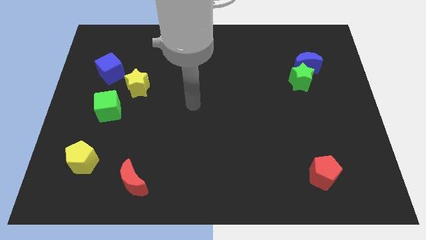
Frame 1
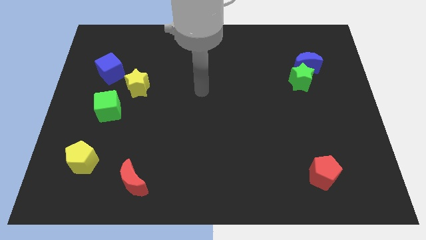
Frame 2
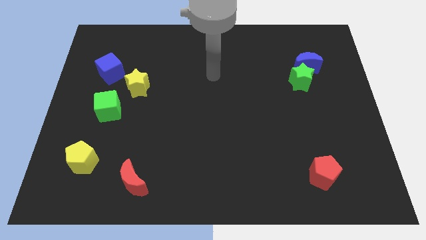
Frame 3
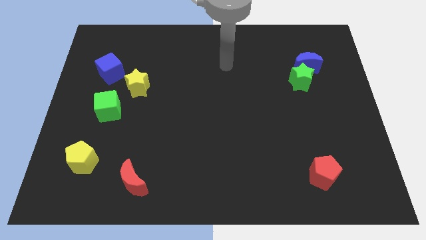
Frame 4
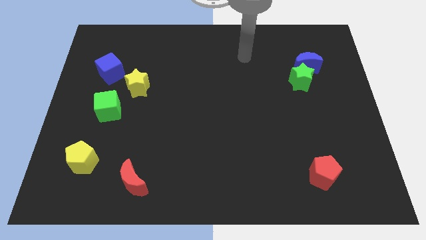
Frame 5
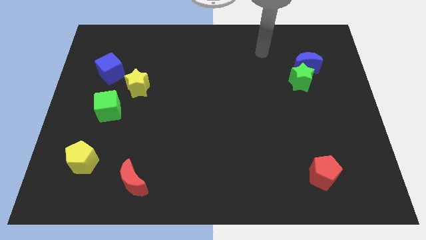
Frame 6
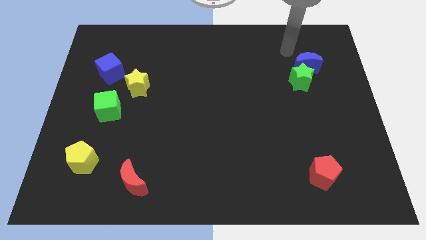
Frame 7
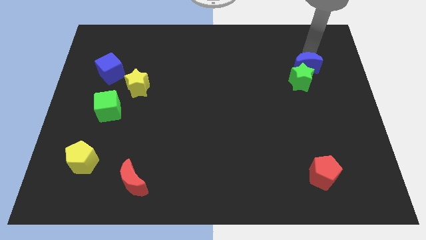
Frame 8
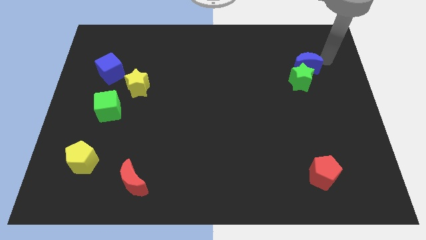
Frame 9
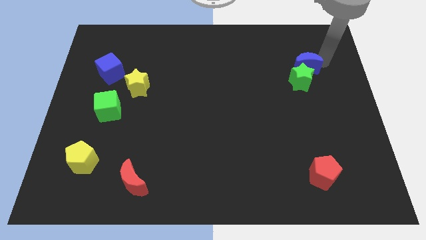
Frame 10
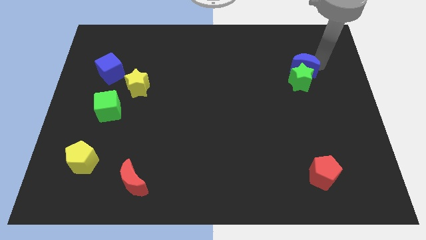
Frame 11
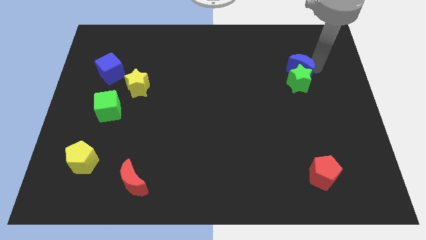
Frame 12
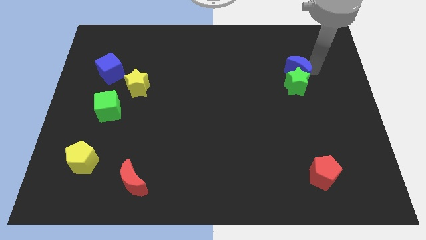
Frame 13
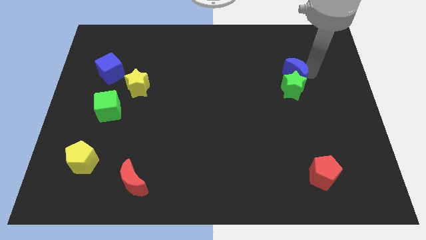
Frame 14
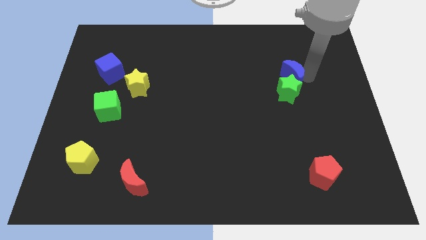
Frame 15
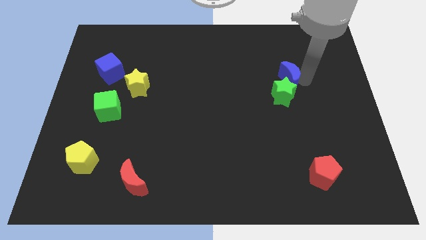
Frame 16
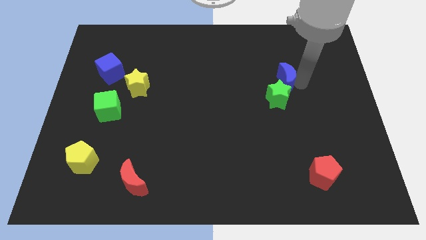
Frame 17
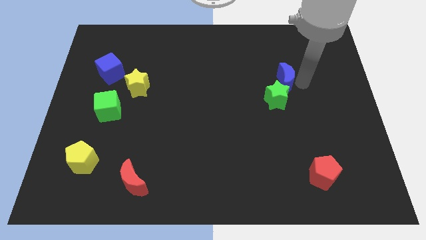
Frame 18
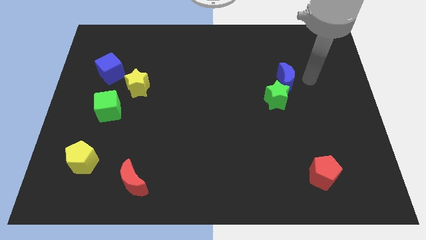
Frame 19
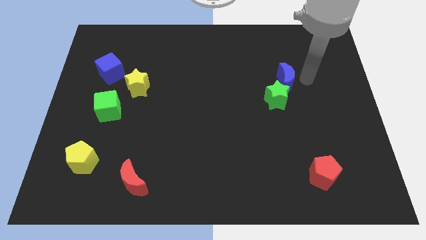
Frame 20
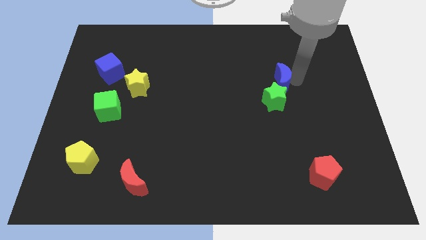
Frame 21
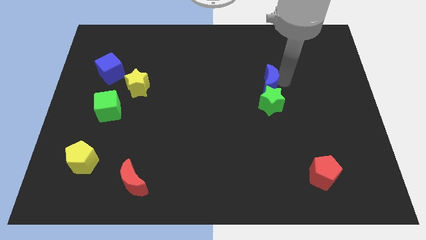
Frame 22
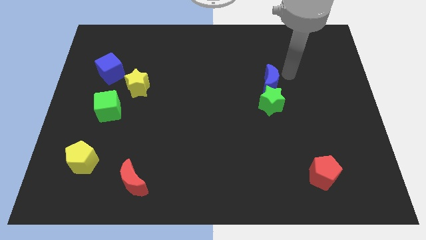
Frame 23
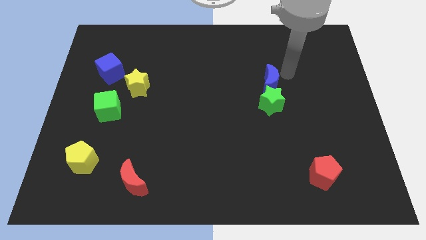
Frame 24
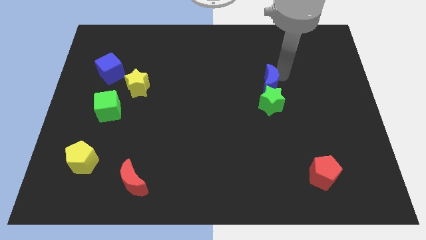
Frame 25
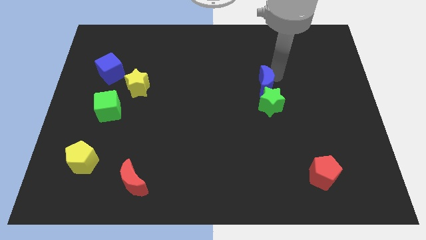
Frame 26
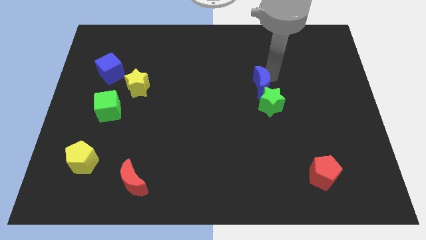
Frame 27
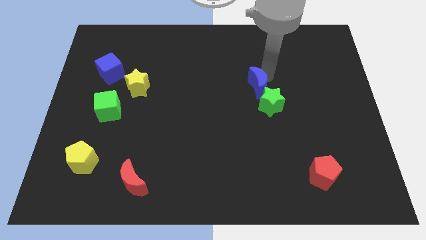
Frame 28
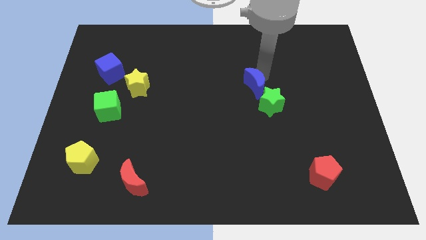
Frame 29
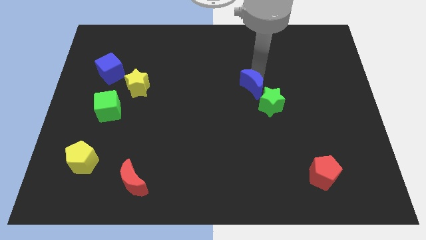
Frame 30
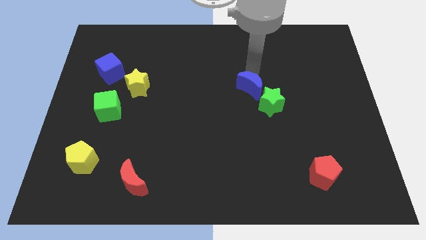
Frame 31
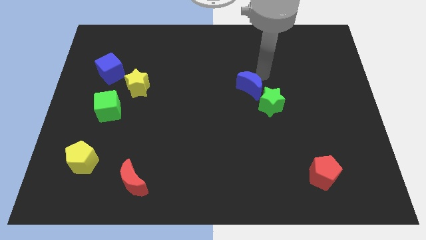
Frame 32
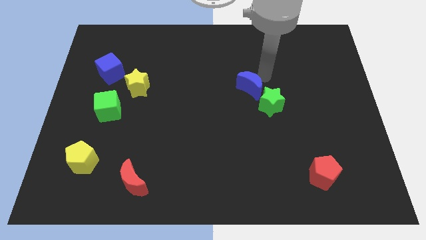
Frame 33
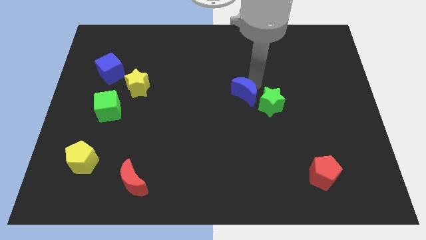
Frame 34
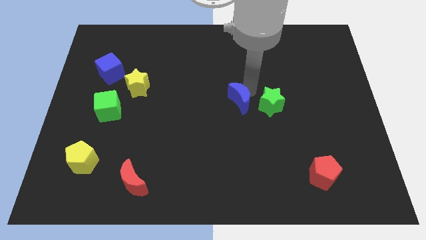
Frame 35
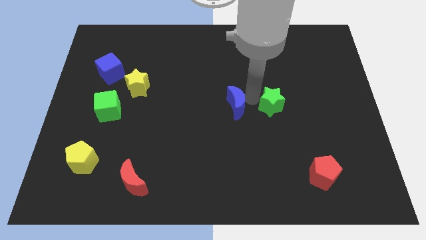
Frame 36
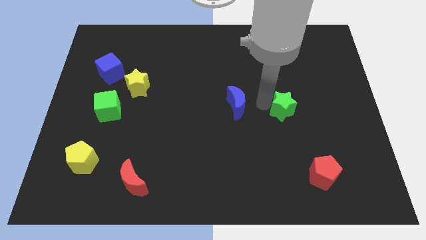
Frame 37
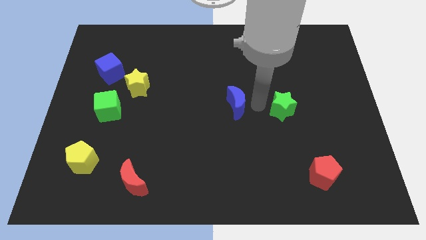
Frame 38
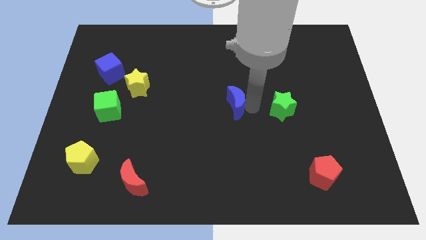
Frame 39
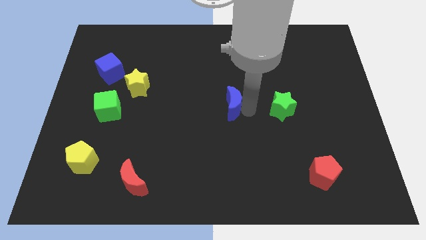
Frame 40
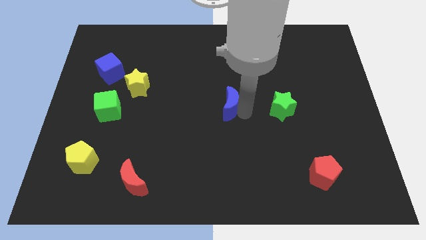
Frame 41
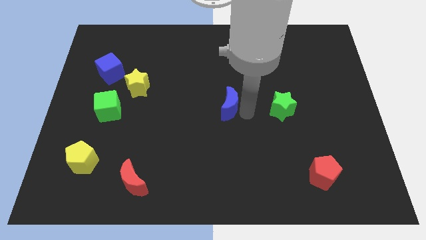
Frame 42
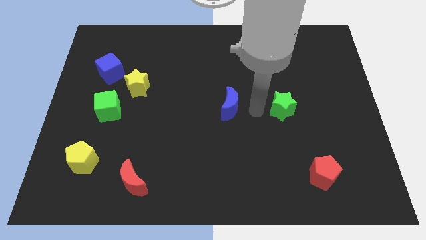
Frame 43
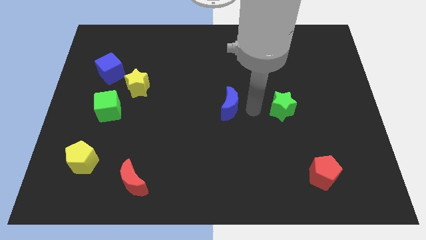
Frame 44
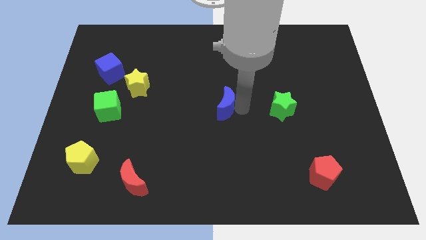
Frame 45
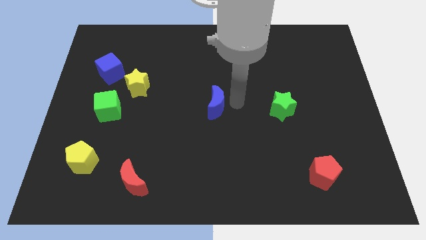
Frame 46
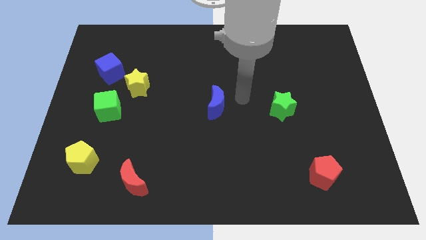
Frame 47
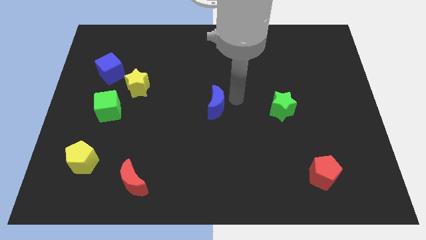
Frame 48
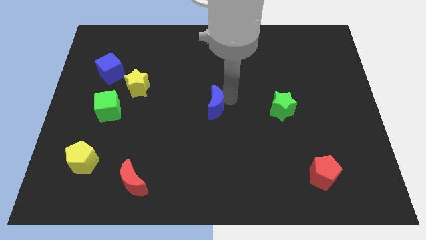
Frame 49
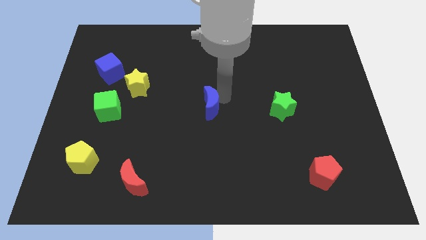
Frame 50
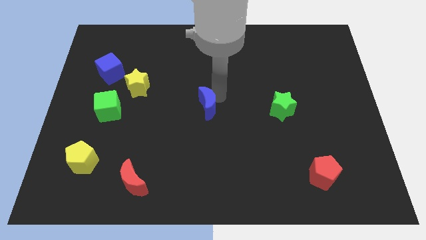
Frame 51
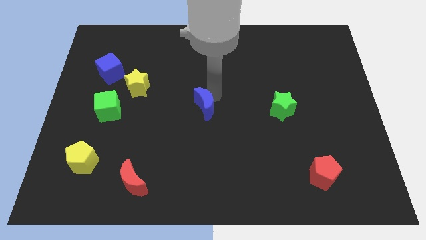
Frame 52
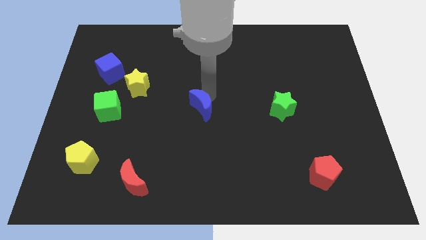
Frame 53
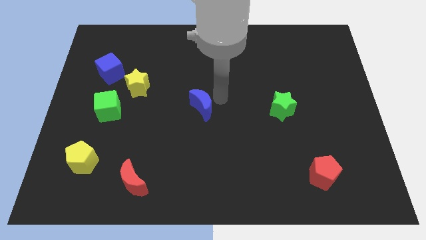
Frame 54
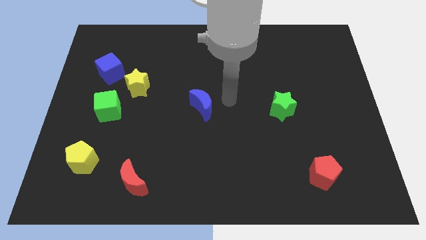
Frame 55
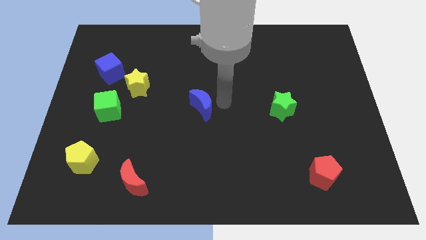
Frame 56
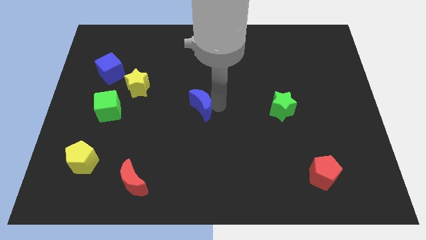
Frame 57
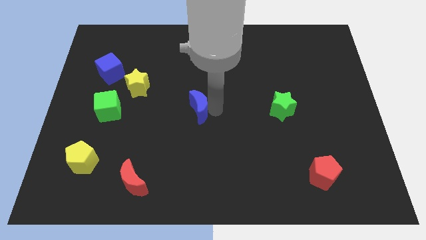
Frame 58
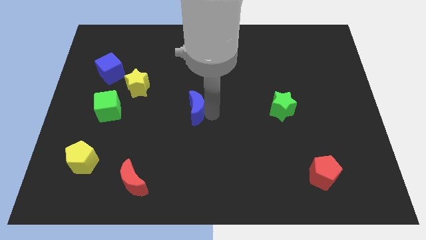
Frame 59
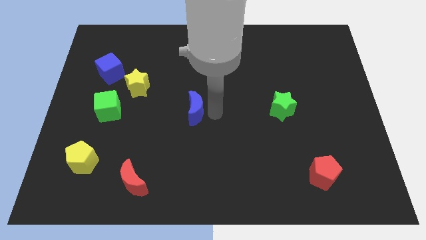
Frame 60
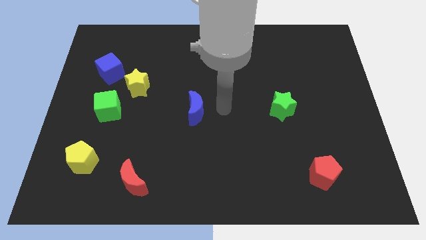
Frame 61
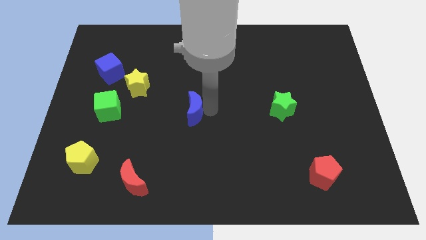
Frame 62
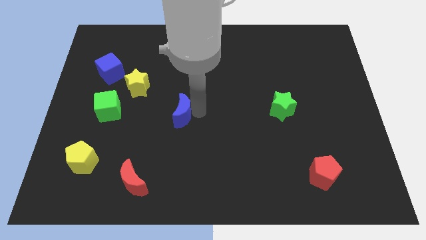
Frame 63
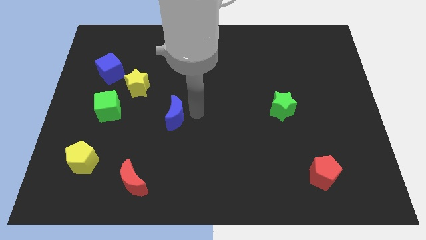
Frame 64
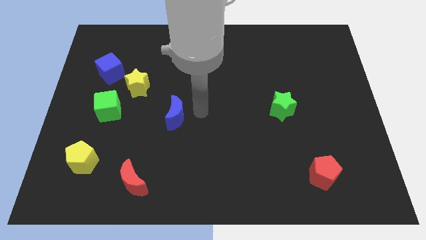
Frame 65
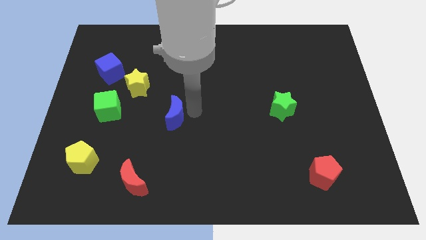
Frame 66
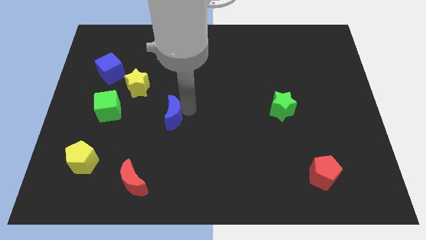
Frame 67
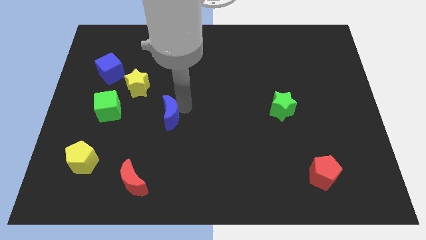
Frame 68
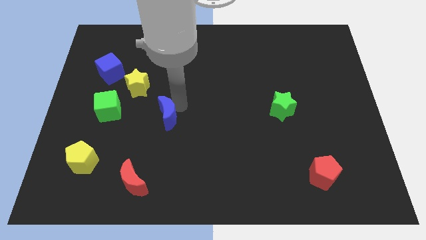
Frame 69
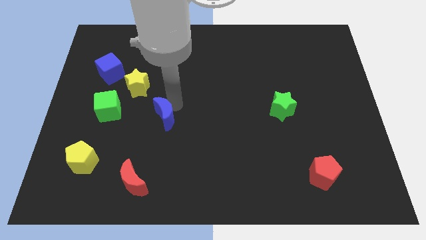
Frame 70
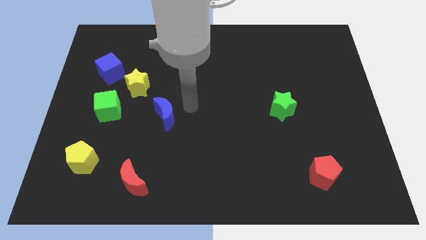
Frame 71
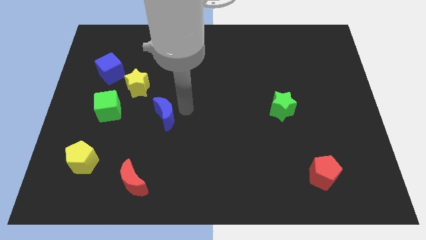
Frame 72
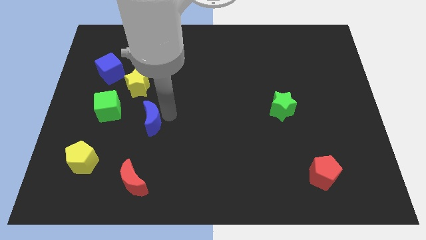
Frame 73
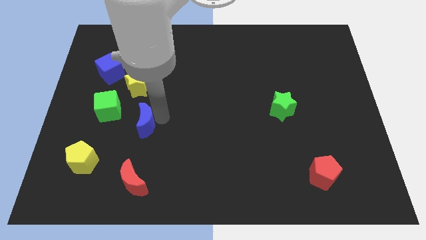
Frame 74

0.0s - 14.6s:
push the blue moon diagonally down and to the right of the green cube

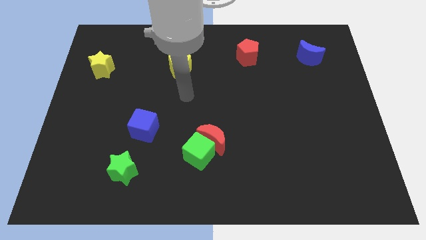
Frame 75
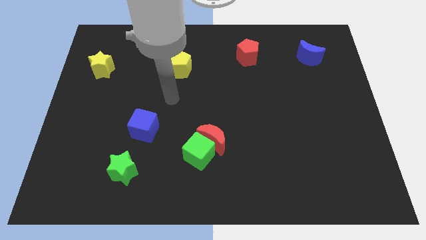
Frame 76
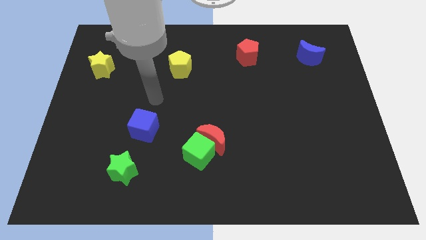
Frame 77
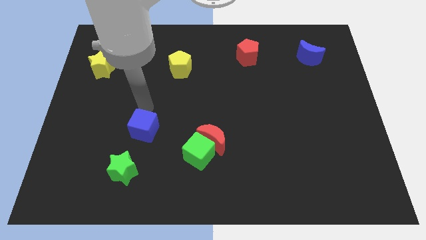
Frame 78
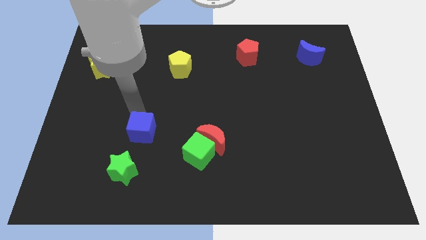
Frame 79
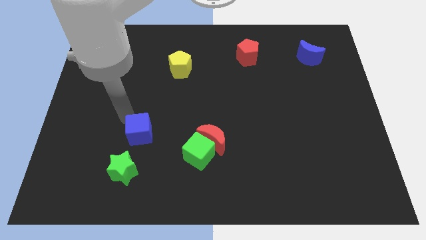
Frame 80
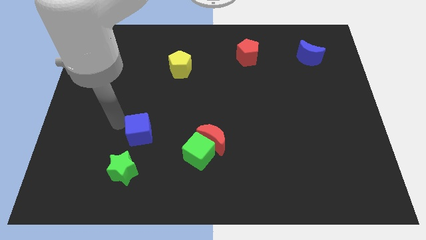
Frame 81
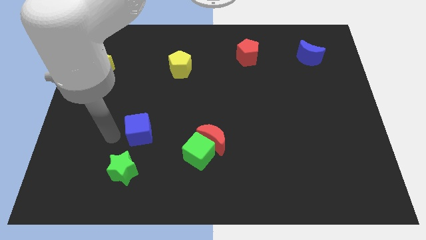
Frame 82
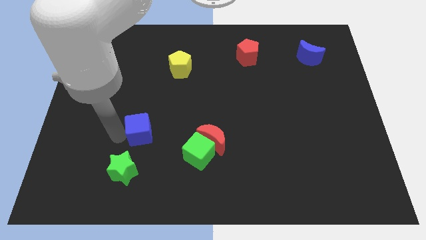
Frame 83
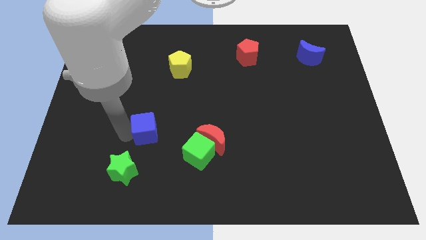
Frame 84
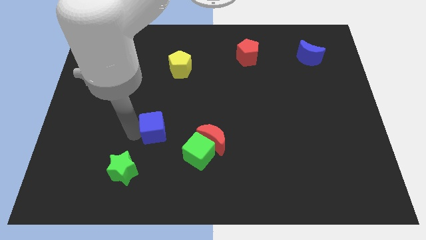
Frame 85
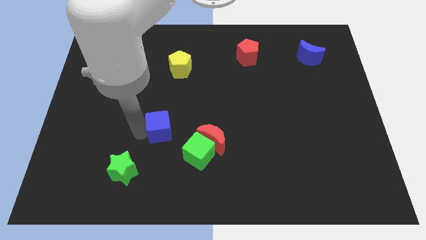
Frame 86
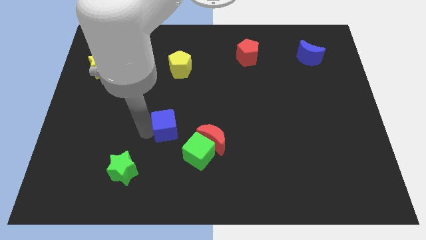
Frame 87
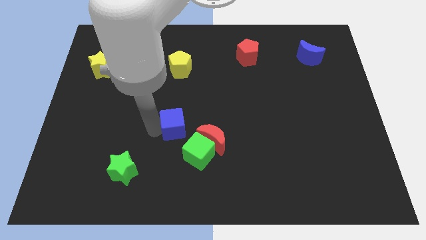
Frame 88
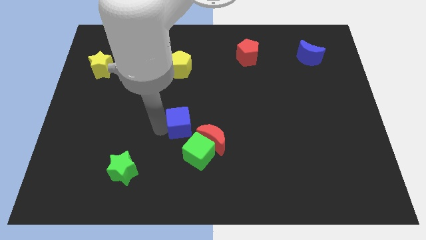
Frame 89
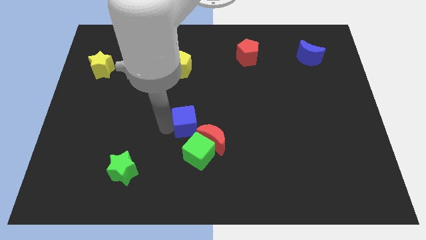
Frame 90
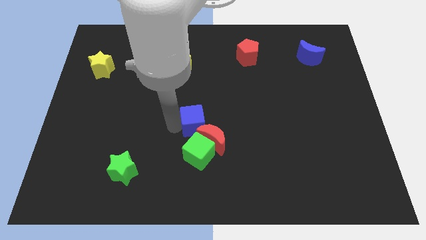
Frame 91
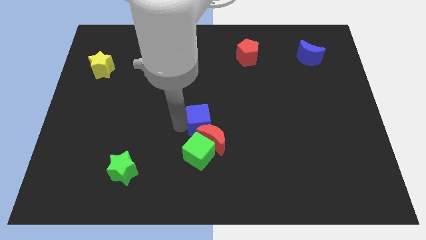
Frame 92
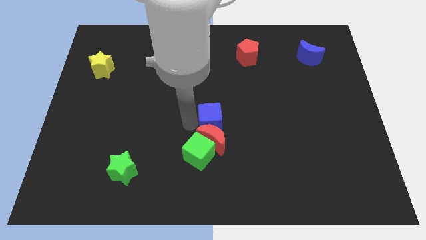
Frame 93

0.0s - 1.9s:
put the blue cube to the top right side of the red moon
